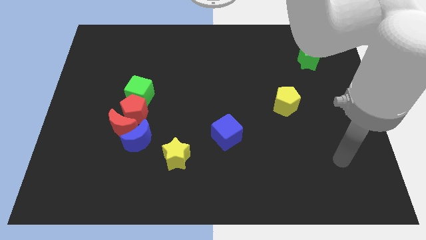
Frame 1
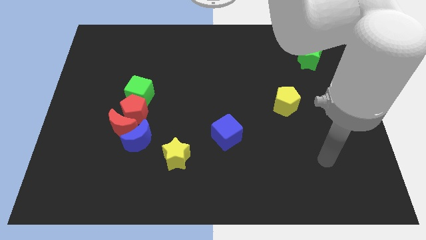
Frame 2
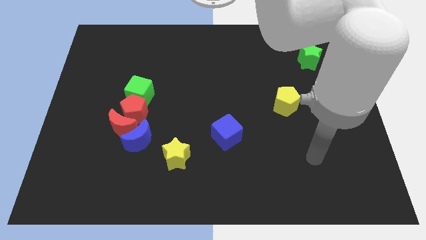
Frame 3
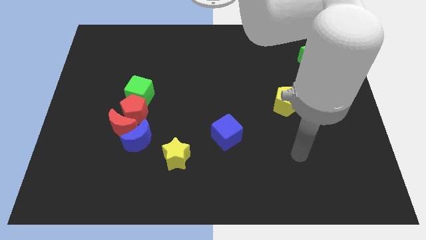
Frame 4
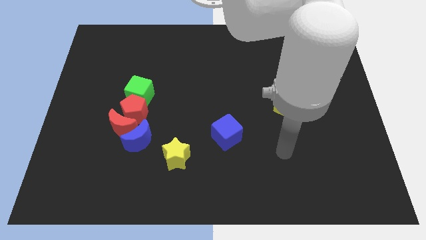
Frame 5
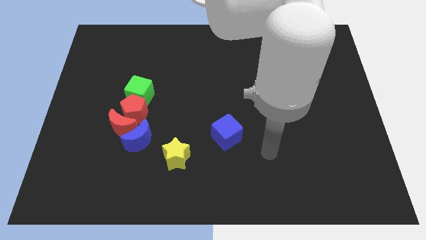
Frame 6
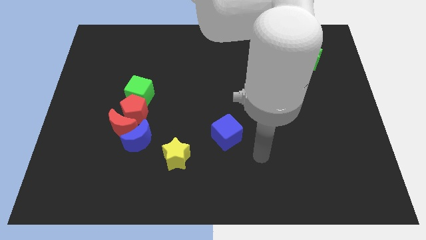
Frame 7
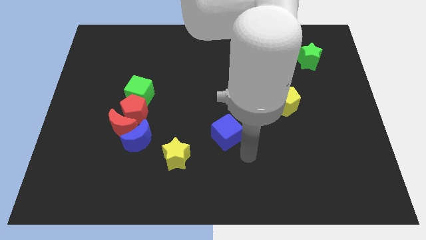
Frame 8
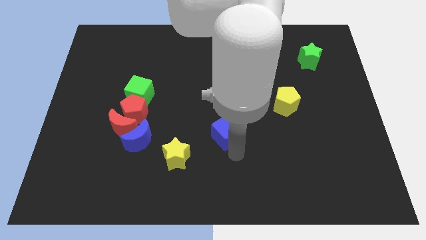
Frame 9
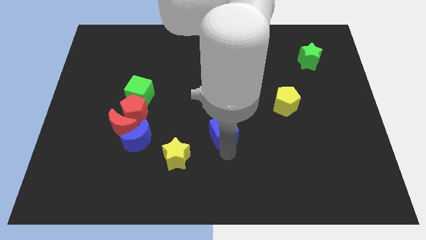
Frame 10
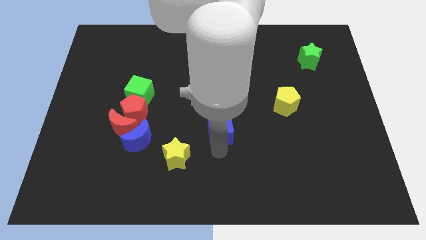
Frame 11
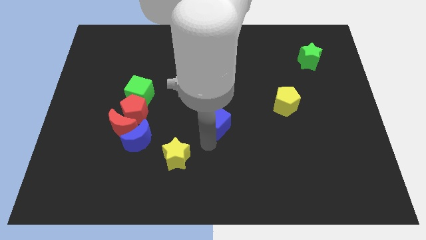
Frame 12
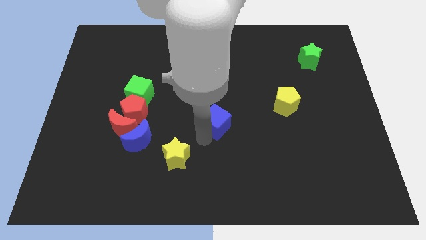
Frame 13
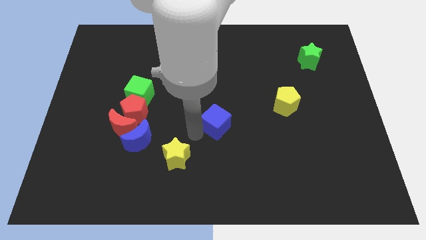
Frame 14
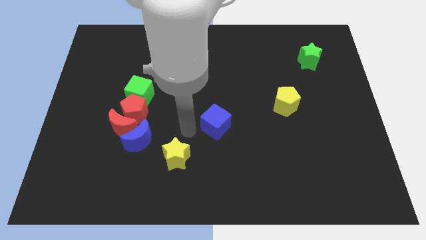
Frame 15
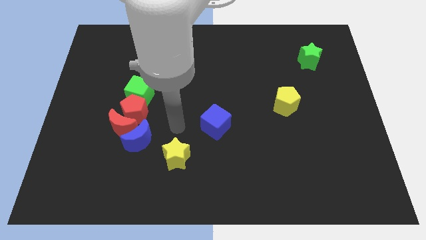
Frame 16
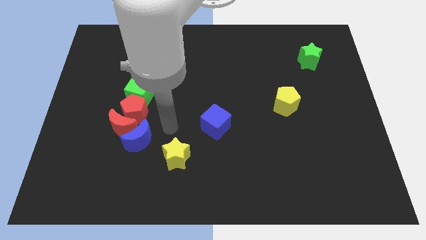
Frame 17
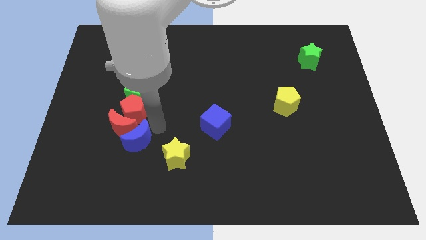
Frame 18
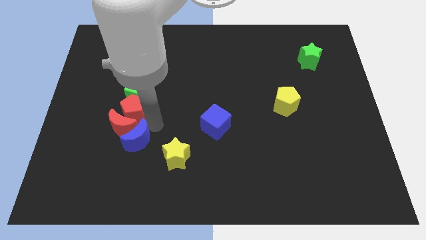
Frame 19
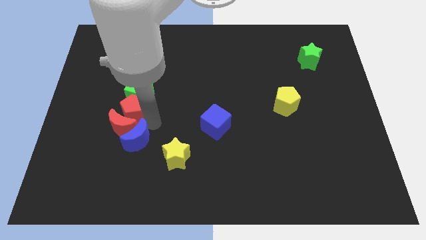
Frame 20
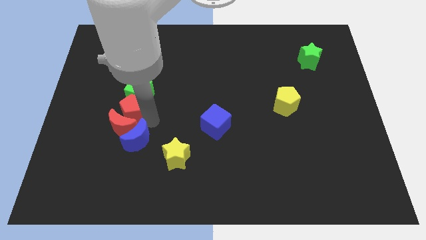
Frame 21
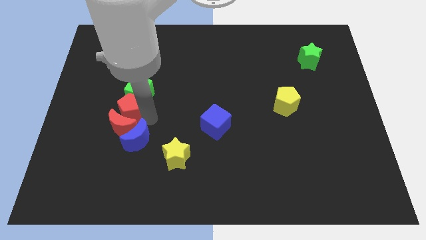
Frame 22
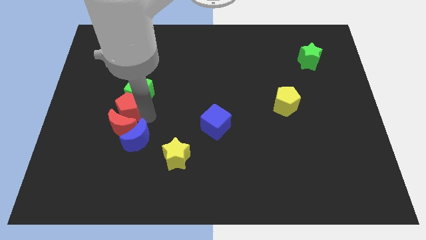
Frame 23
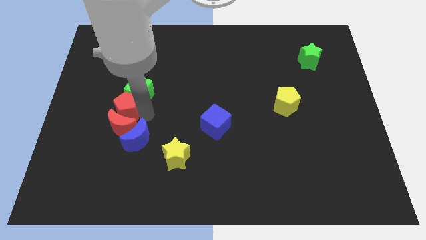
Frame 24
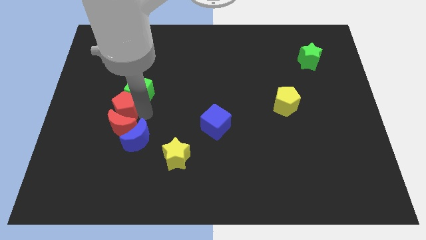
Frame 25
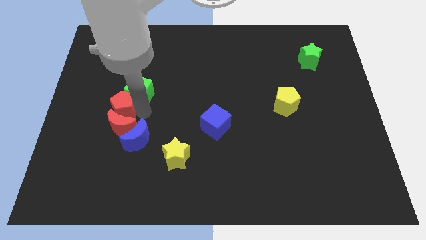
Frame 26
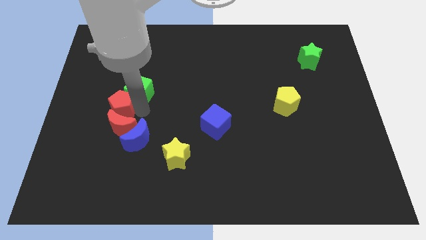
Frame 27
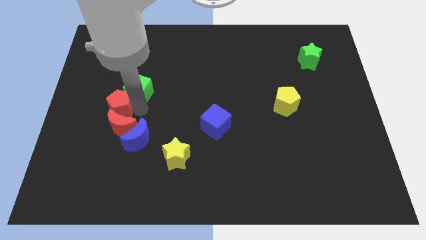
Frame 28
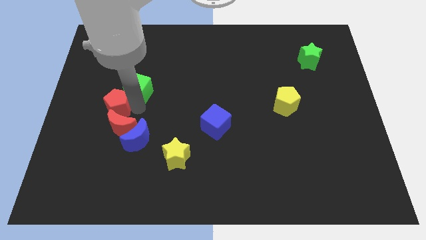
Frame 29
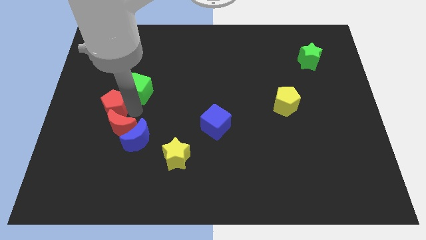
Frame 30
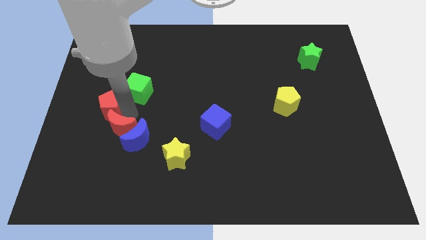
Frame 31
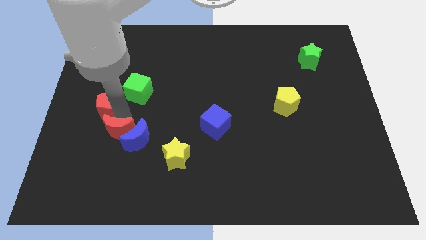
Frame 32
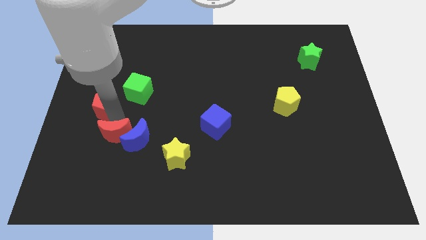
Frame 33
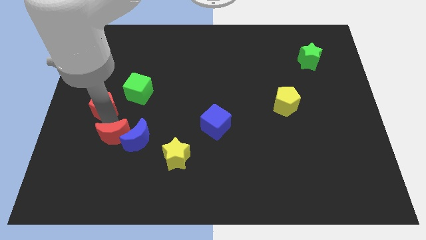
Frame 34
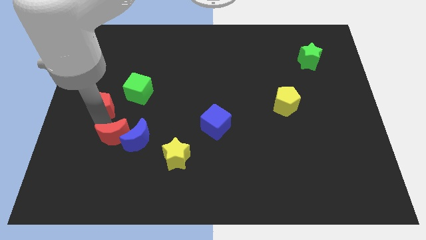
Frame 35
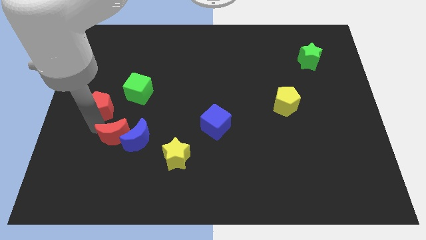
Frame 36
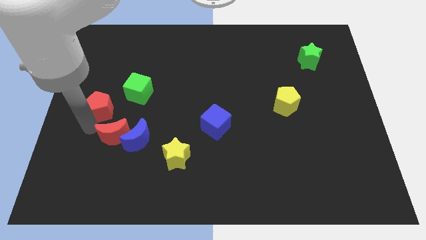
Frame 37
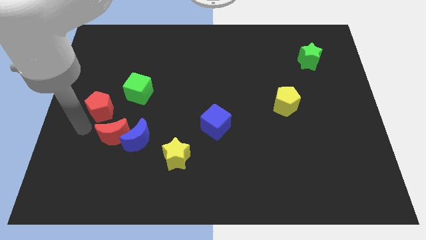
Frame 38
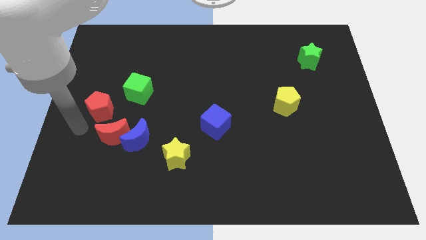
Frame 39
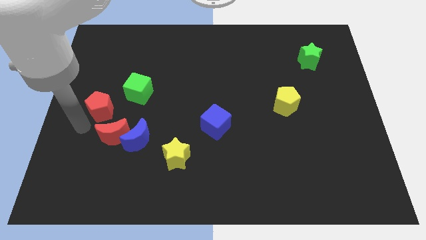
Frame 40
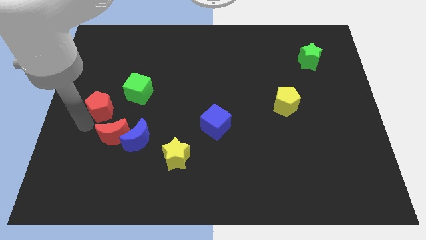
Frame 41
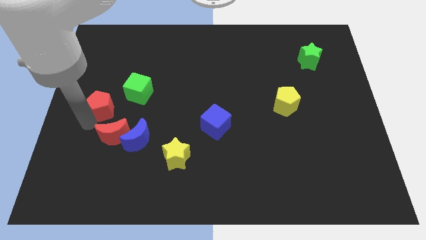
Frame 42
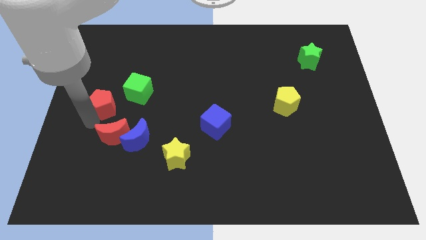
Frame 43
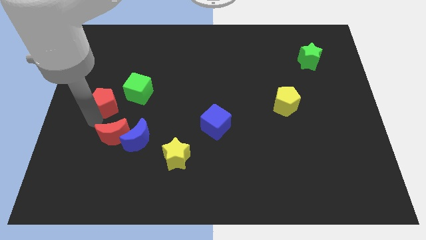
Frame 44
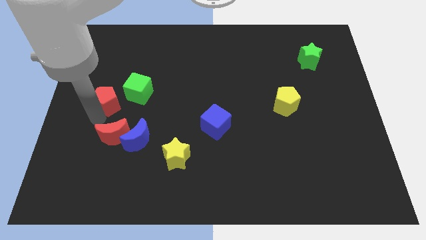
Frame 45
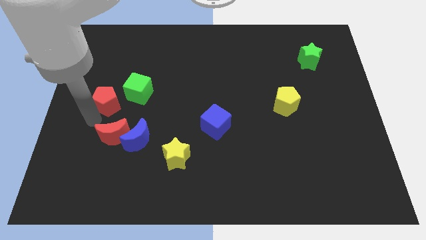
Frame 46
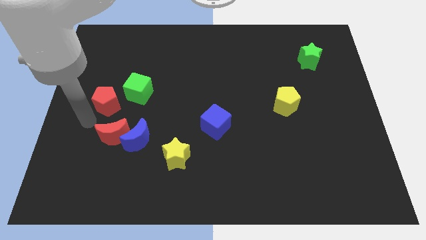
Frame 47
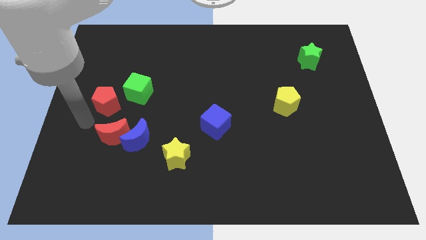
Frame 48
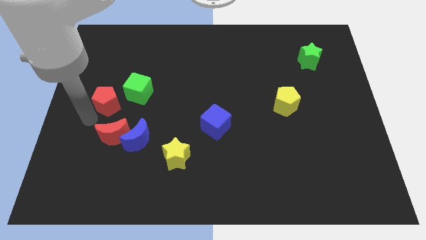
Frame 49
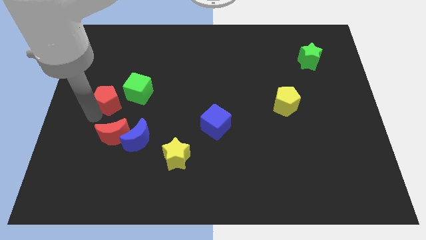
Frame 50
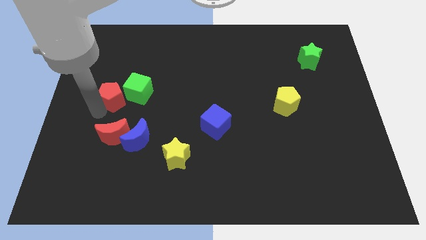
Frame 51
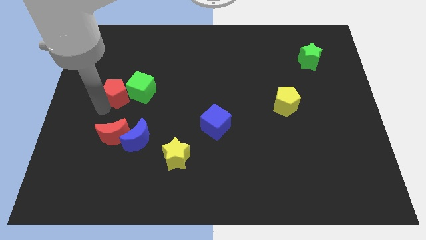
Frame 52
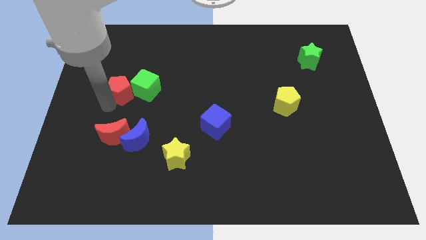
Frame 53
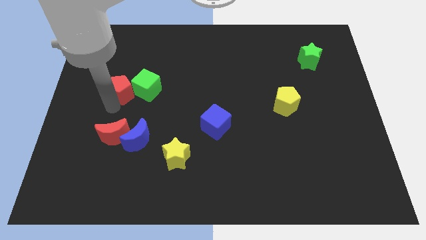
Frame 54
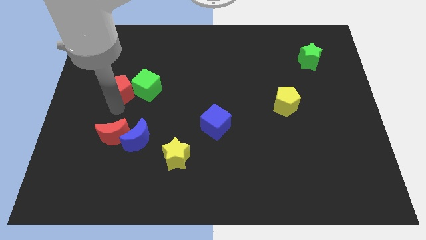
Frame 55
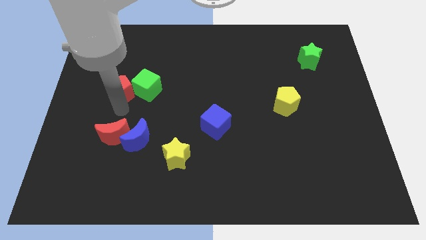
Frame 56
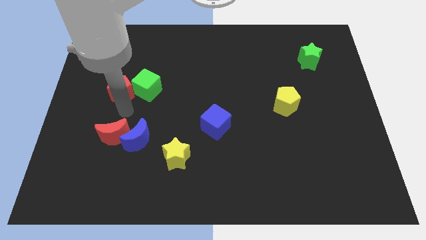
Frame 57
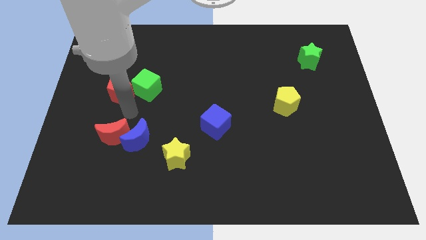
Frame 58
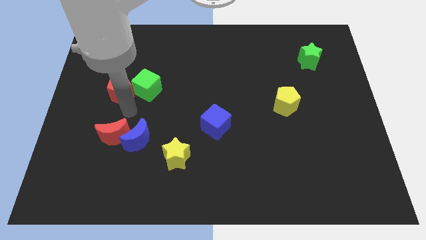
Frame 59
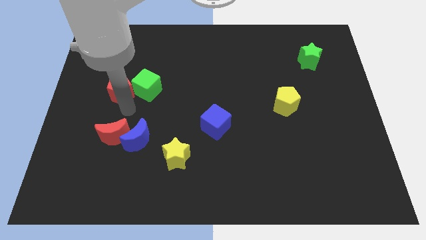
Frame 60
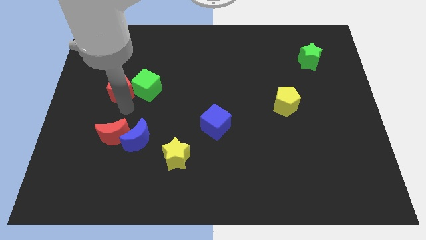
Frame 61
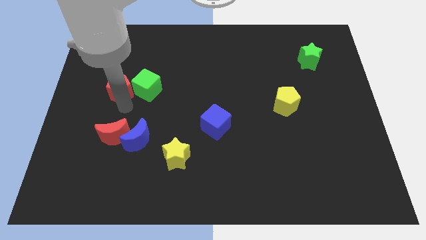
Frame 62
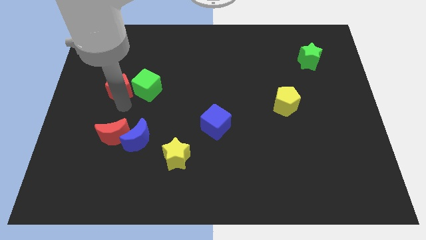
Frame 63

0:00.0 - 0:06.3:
pull the red pentagon apart from the group of blocks

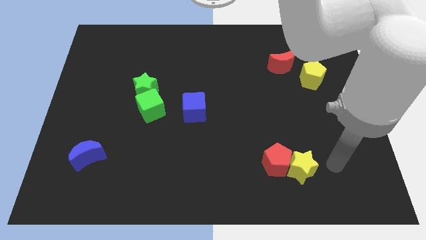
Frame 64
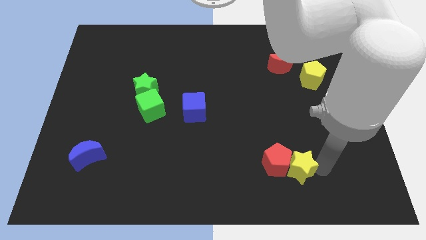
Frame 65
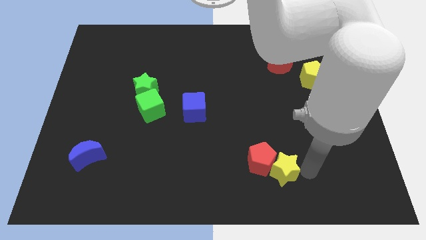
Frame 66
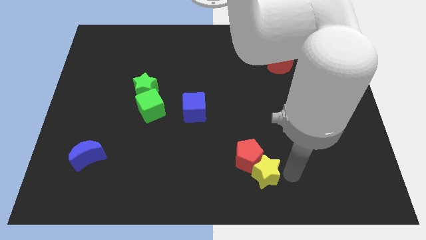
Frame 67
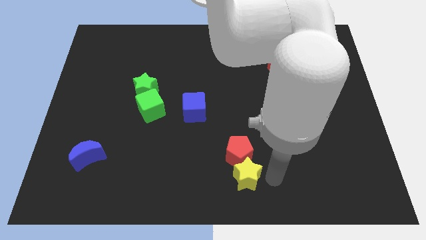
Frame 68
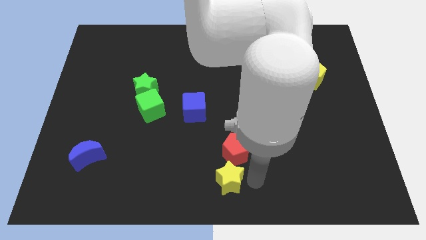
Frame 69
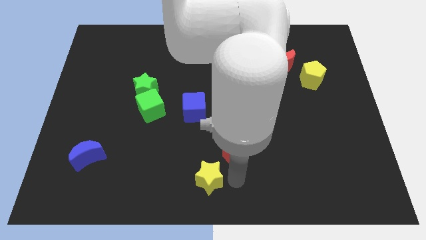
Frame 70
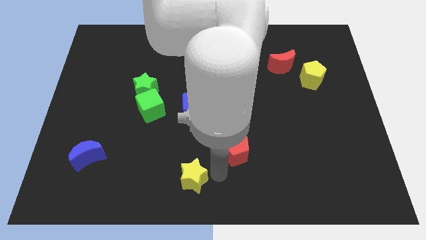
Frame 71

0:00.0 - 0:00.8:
move the red pentagon away from the yellow star

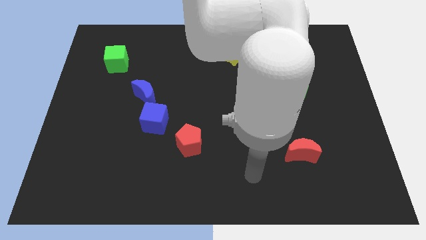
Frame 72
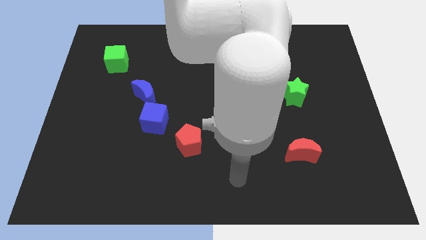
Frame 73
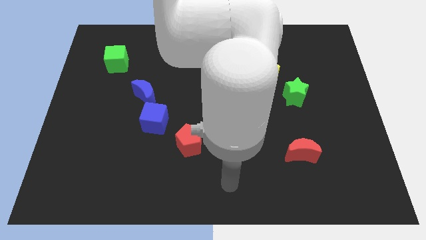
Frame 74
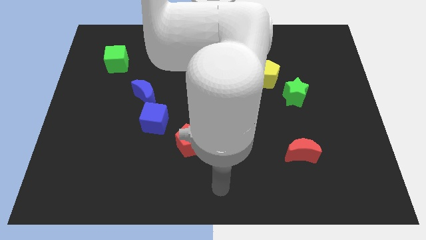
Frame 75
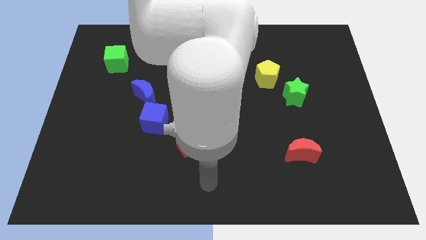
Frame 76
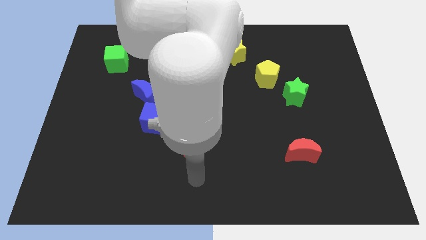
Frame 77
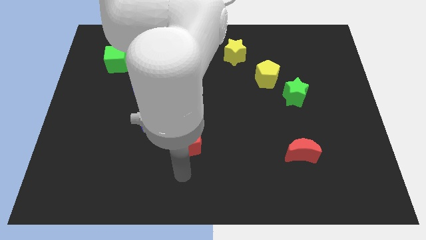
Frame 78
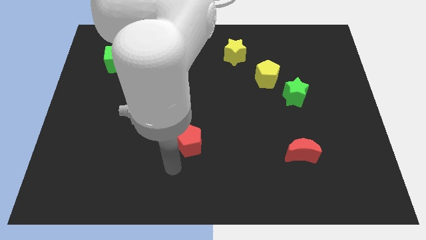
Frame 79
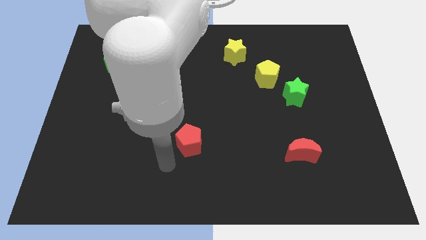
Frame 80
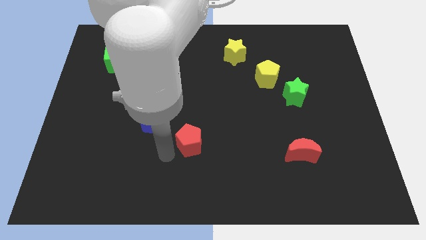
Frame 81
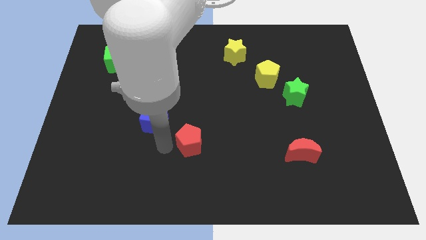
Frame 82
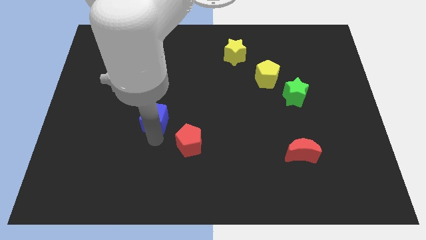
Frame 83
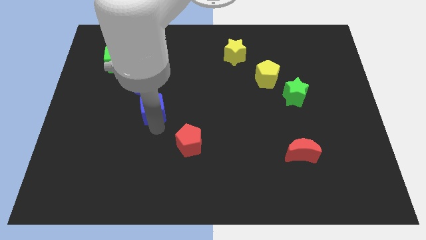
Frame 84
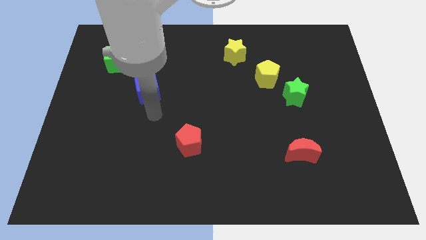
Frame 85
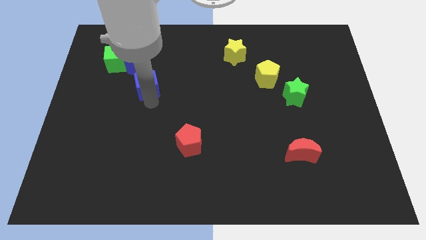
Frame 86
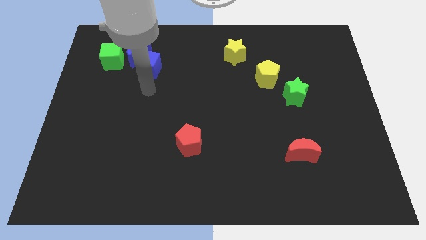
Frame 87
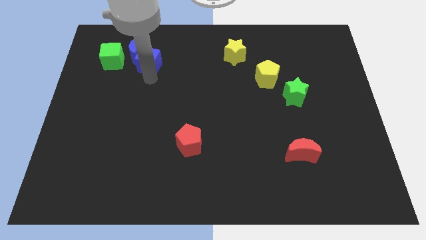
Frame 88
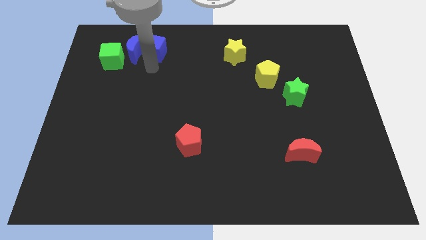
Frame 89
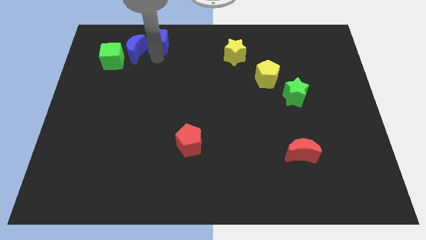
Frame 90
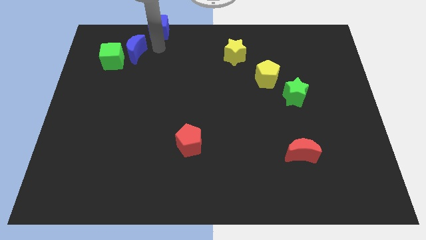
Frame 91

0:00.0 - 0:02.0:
pull the blue moon apart from the blue cube

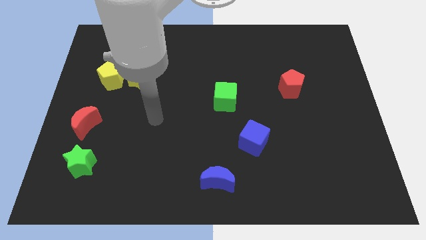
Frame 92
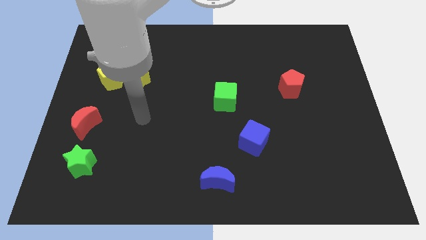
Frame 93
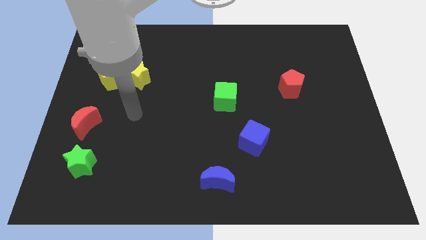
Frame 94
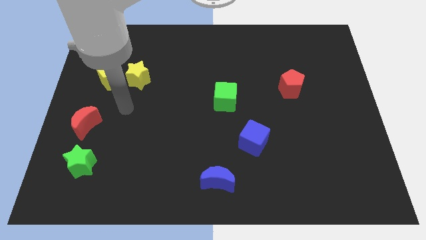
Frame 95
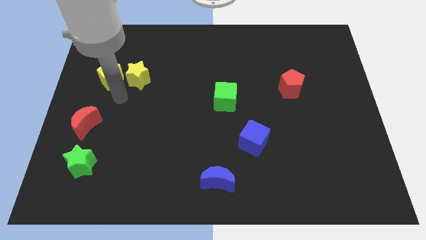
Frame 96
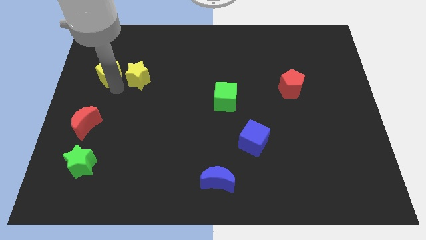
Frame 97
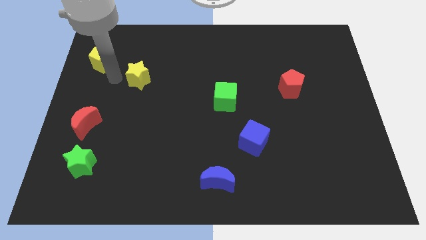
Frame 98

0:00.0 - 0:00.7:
pull the yellow star apart from the yellow pentagon
